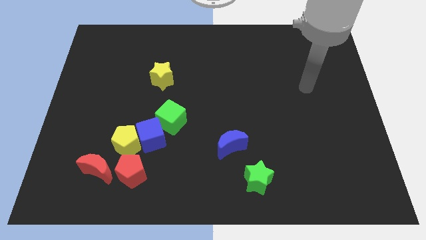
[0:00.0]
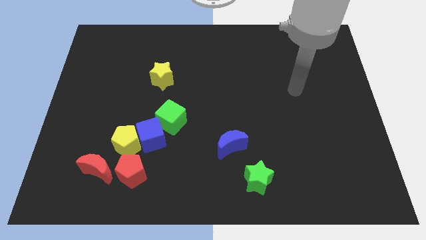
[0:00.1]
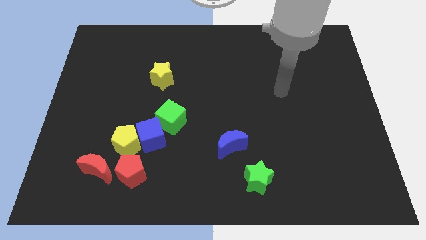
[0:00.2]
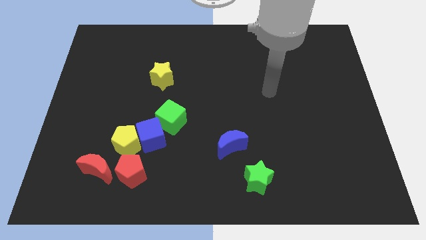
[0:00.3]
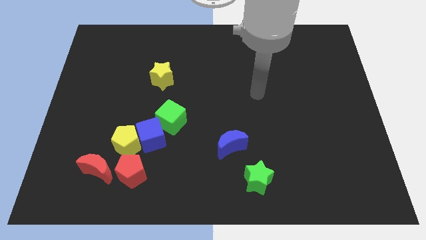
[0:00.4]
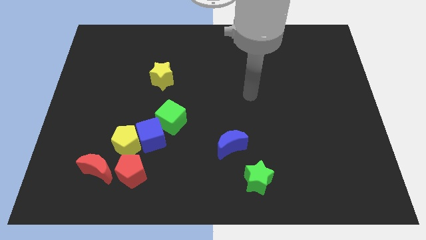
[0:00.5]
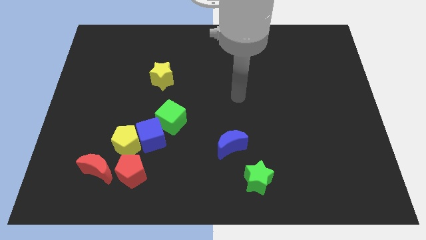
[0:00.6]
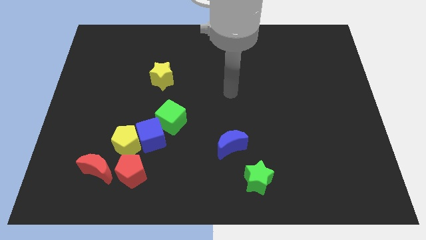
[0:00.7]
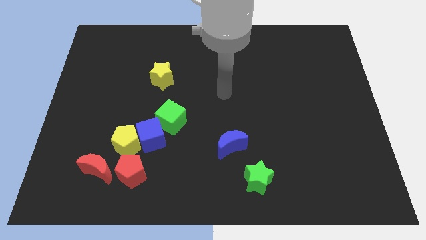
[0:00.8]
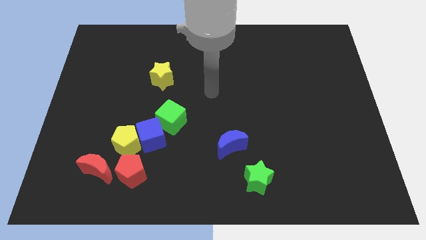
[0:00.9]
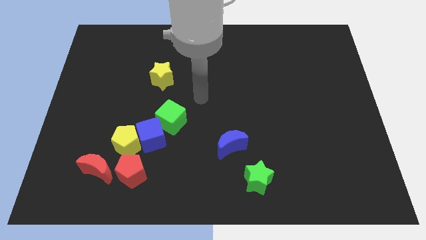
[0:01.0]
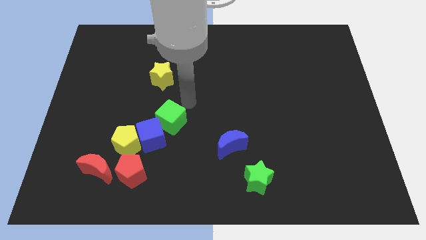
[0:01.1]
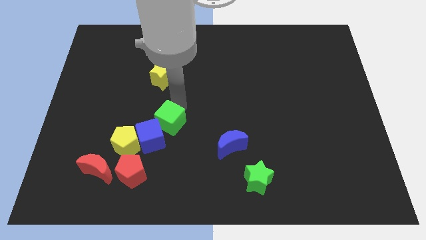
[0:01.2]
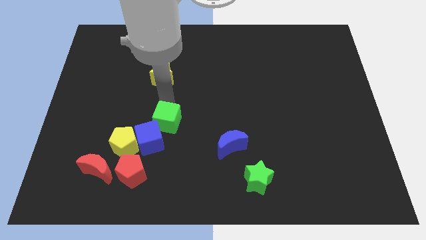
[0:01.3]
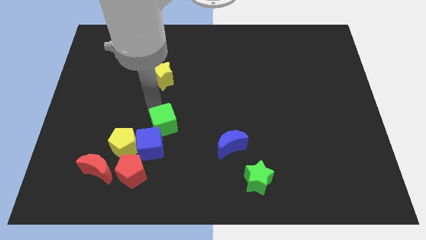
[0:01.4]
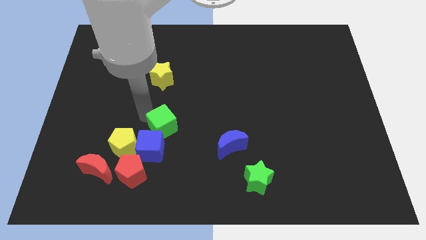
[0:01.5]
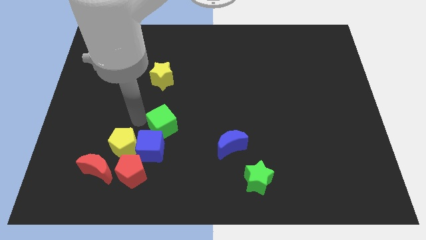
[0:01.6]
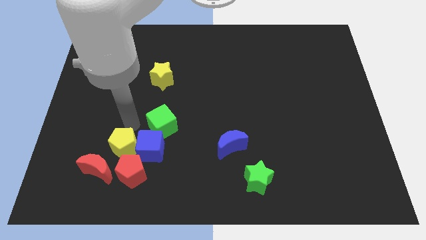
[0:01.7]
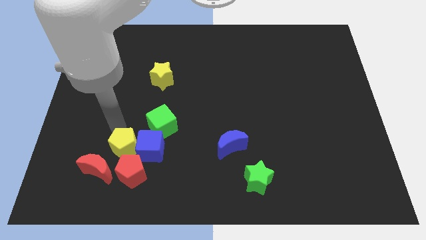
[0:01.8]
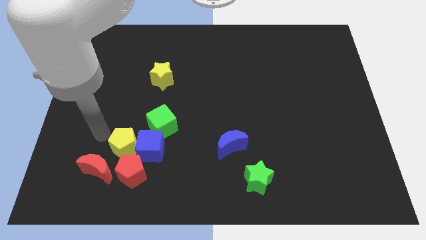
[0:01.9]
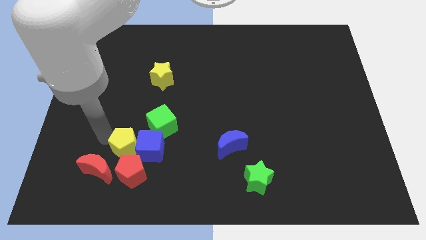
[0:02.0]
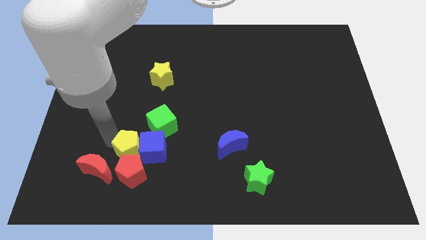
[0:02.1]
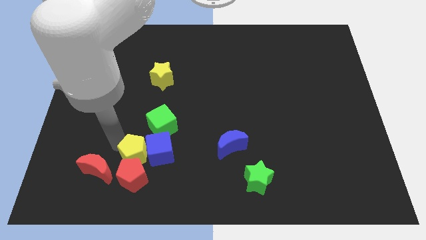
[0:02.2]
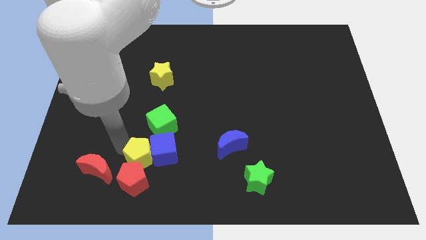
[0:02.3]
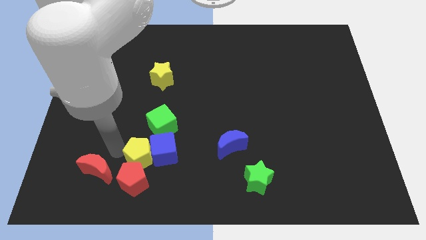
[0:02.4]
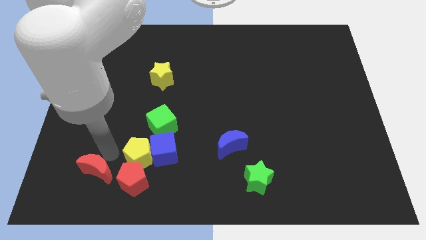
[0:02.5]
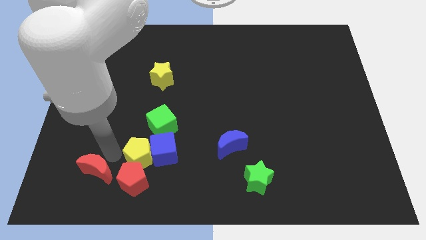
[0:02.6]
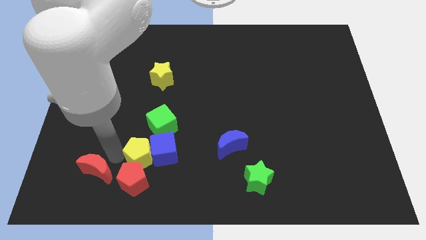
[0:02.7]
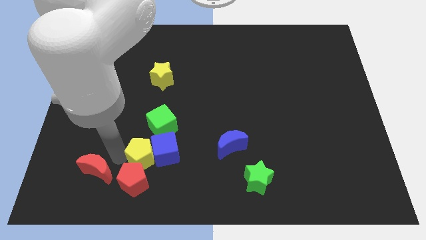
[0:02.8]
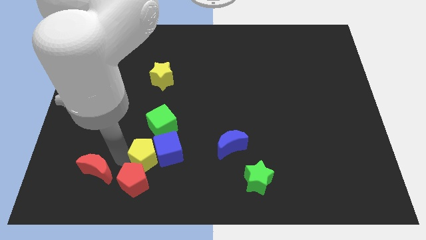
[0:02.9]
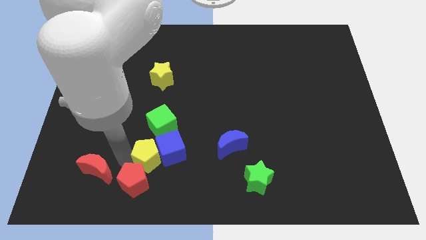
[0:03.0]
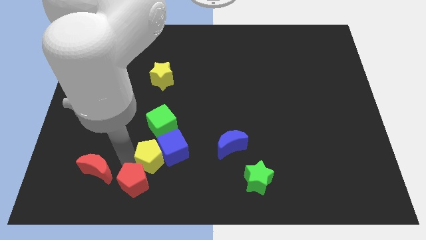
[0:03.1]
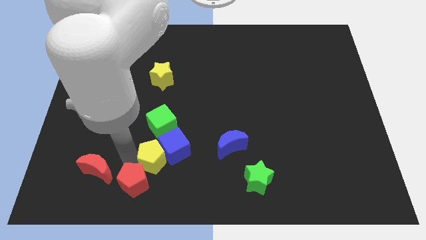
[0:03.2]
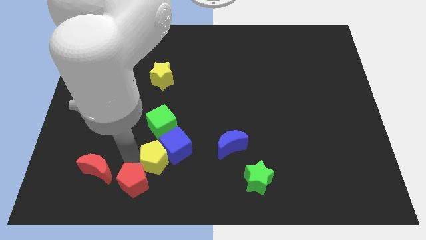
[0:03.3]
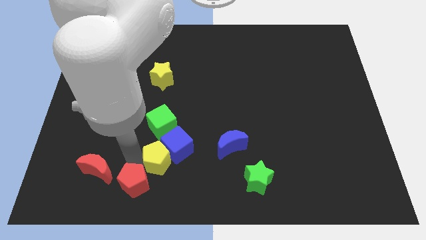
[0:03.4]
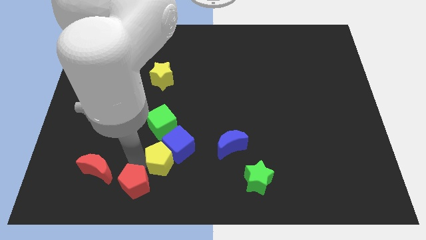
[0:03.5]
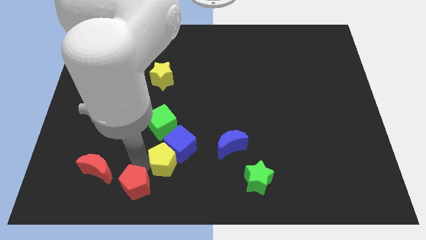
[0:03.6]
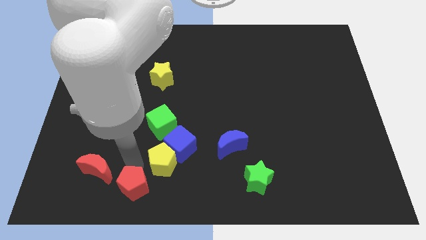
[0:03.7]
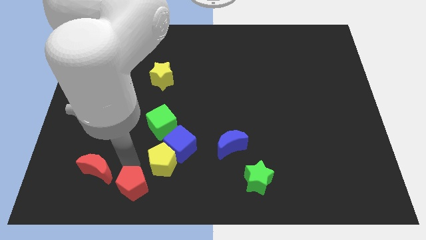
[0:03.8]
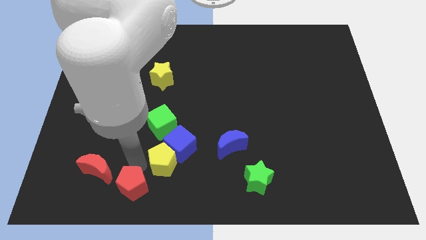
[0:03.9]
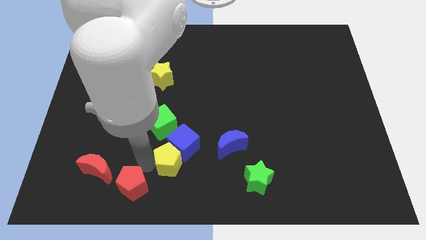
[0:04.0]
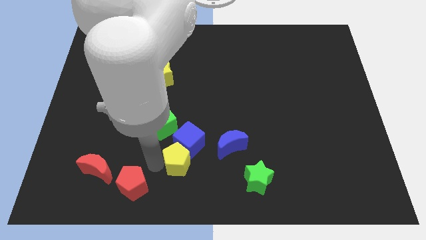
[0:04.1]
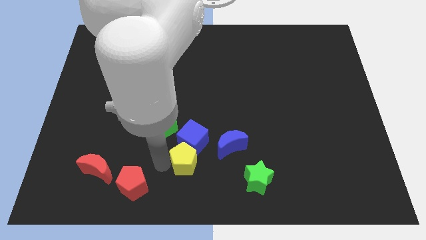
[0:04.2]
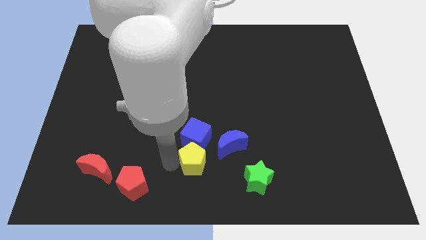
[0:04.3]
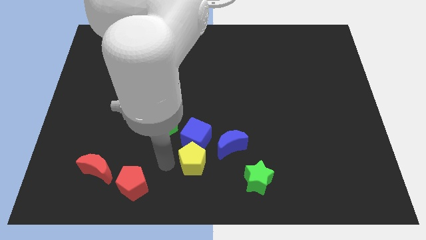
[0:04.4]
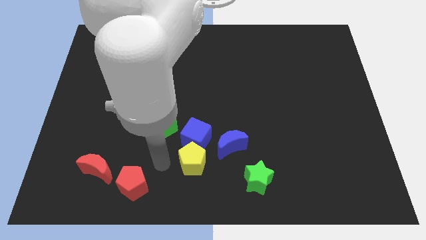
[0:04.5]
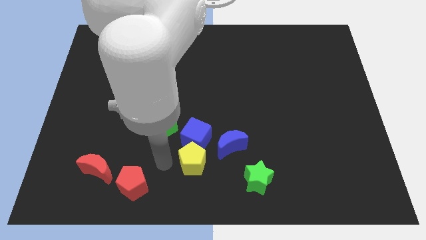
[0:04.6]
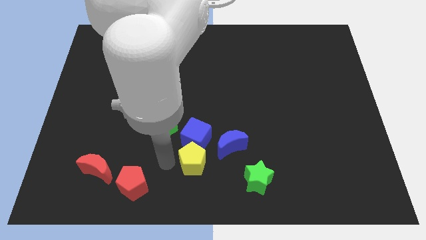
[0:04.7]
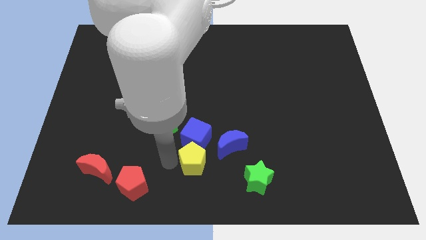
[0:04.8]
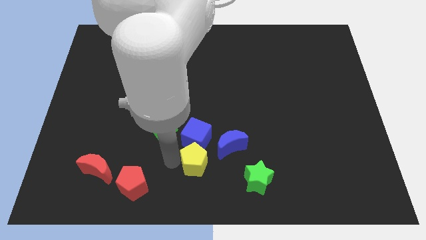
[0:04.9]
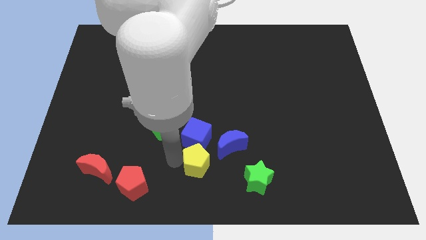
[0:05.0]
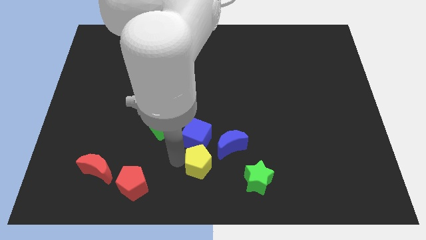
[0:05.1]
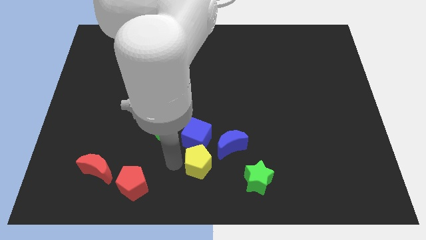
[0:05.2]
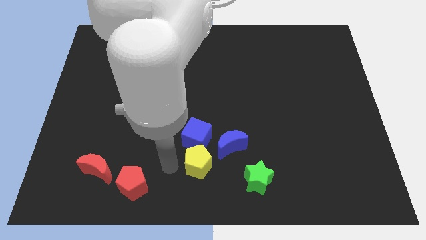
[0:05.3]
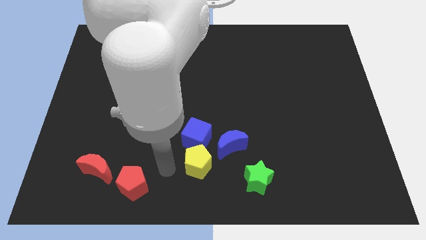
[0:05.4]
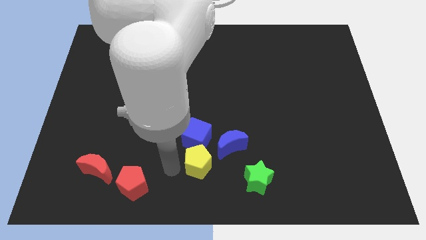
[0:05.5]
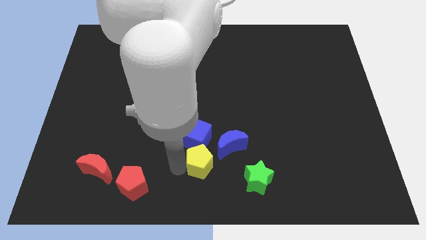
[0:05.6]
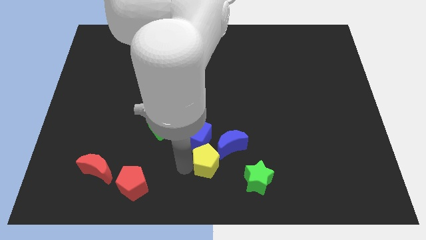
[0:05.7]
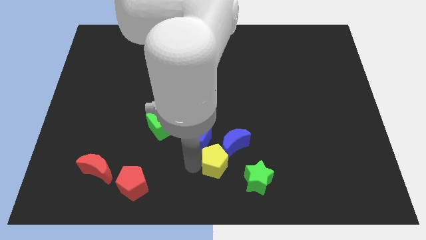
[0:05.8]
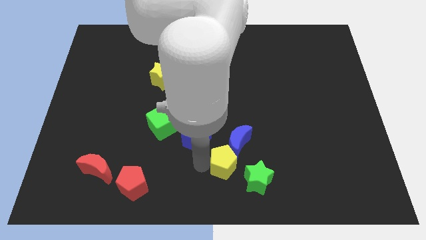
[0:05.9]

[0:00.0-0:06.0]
push the yellow pentagon to the right

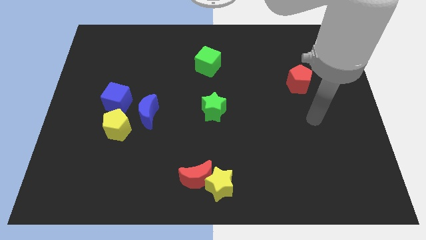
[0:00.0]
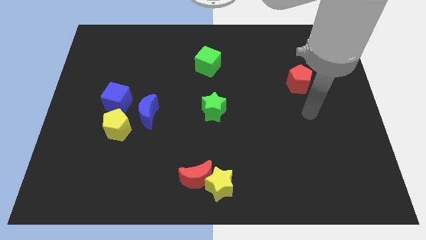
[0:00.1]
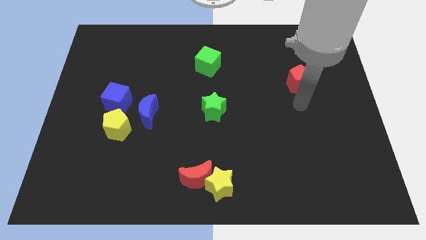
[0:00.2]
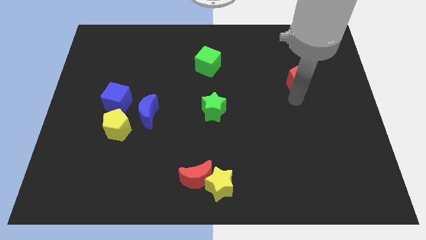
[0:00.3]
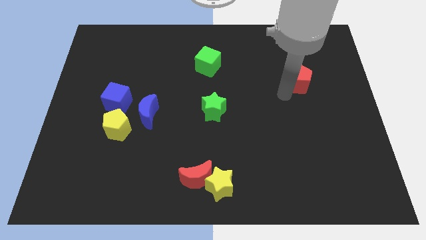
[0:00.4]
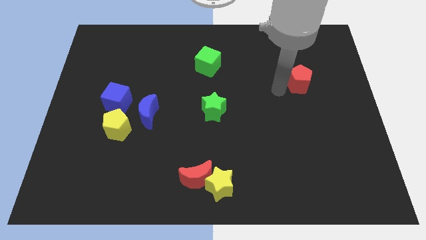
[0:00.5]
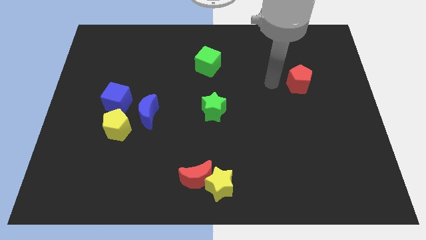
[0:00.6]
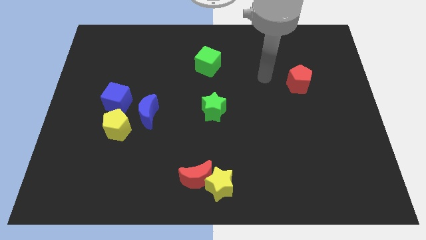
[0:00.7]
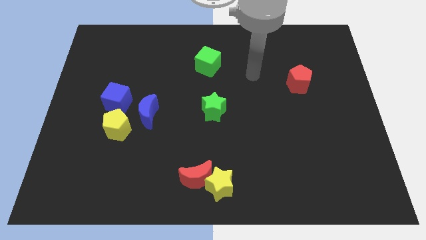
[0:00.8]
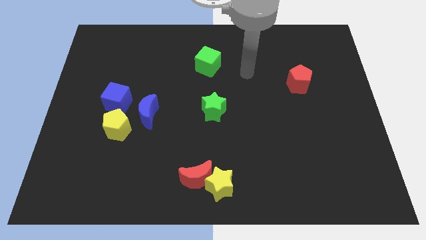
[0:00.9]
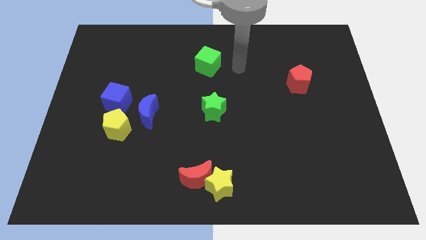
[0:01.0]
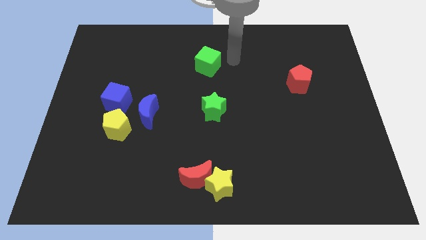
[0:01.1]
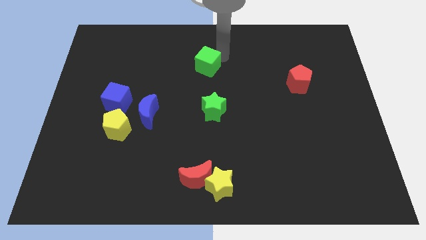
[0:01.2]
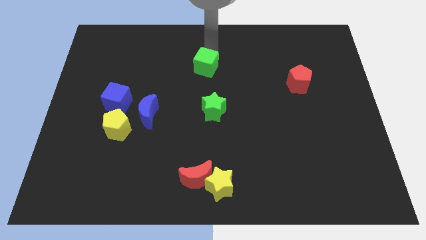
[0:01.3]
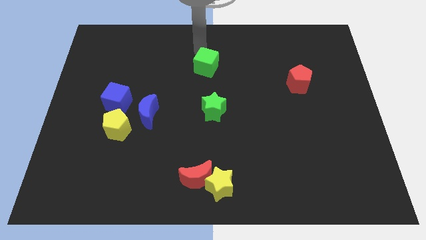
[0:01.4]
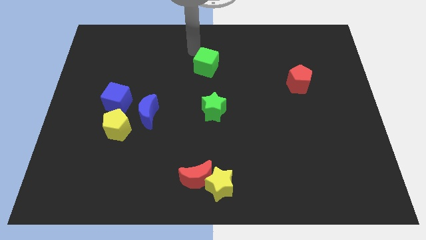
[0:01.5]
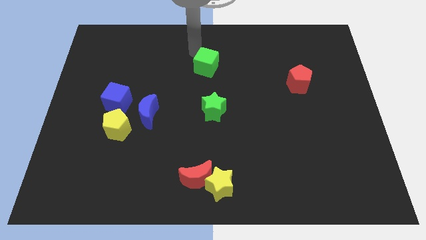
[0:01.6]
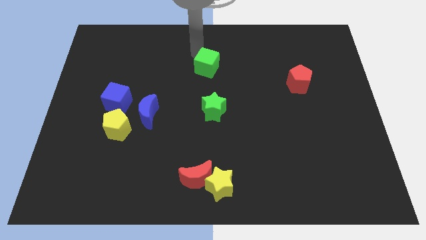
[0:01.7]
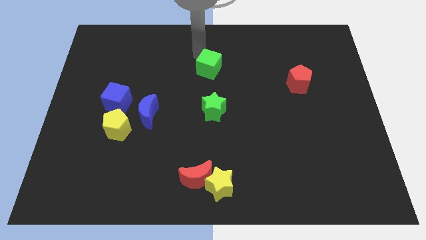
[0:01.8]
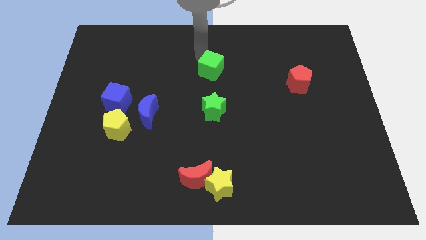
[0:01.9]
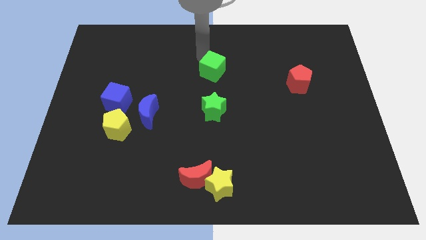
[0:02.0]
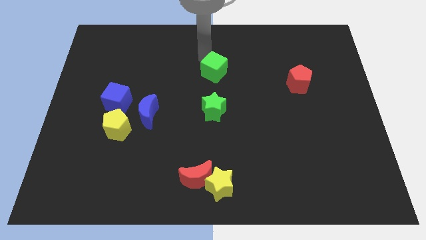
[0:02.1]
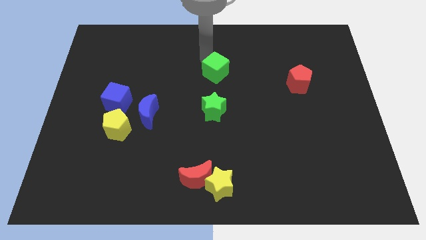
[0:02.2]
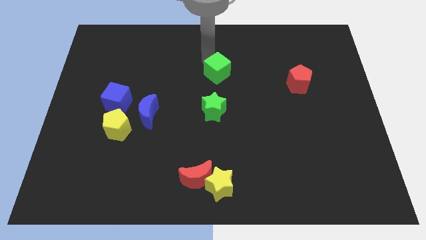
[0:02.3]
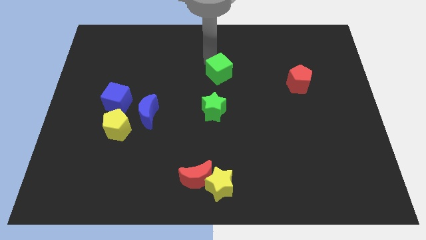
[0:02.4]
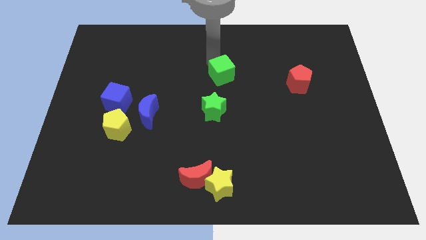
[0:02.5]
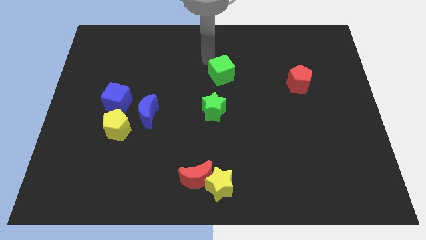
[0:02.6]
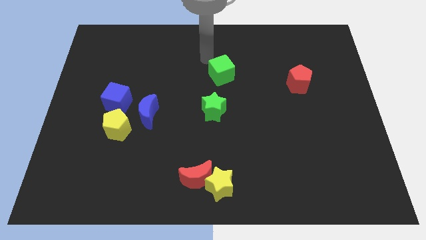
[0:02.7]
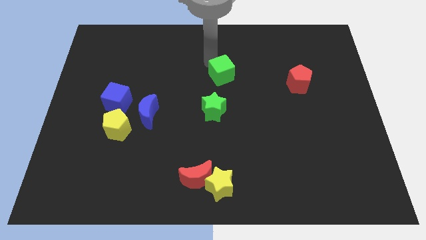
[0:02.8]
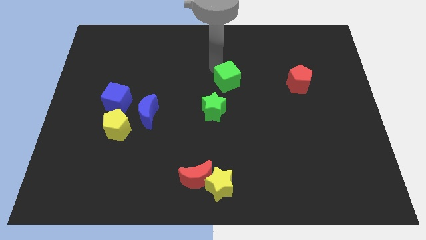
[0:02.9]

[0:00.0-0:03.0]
slightly move the green cube downwards and to the right
